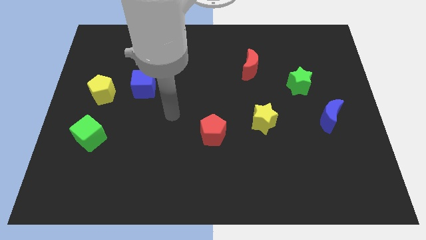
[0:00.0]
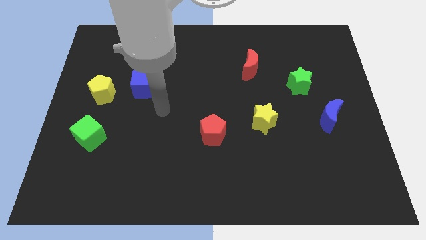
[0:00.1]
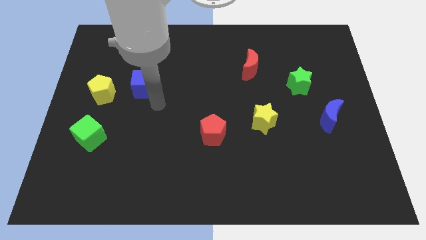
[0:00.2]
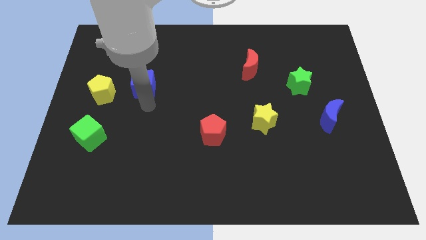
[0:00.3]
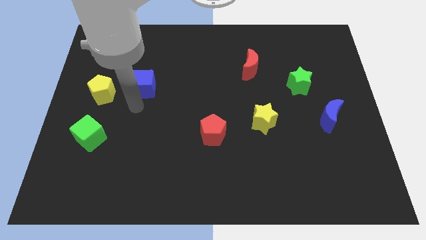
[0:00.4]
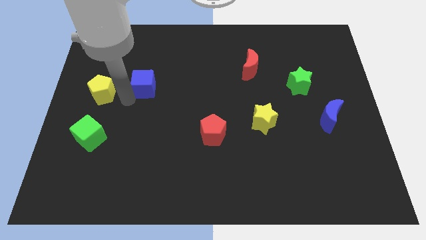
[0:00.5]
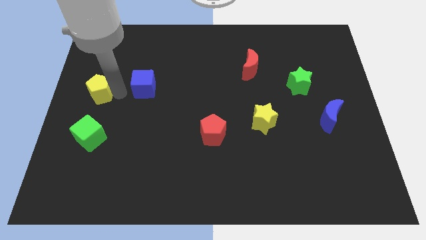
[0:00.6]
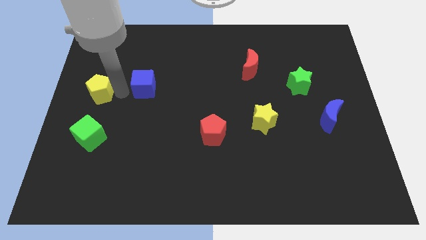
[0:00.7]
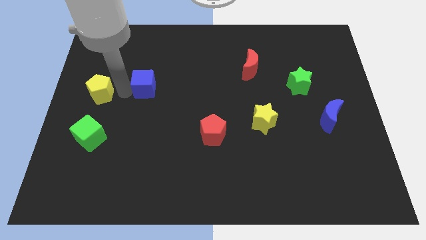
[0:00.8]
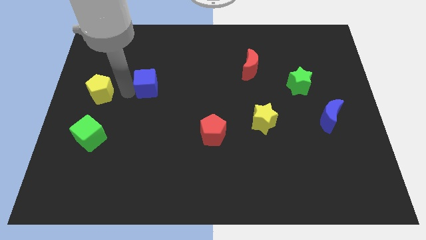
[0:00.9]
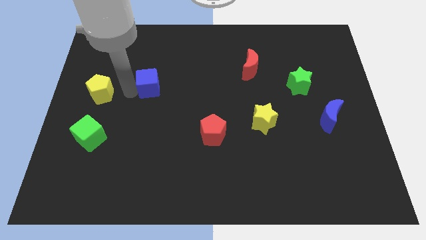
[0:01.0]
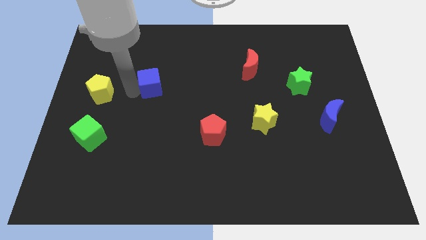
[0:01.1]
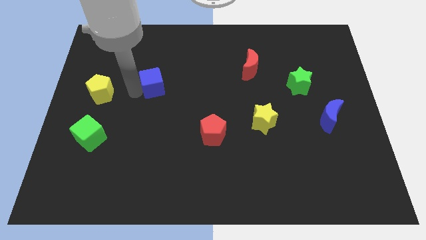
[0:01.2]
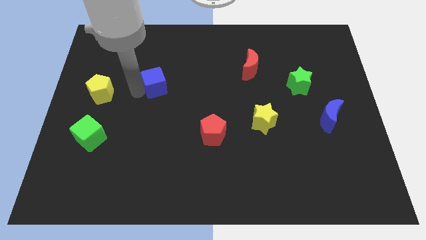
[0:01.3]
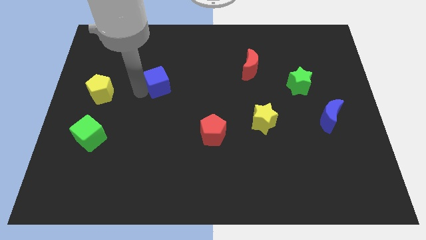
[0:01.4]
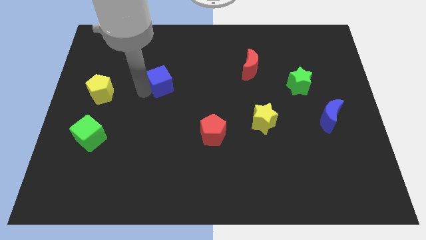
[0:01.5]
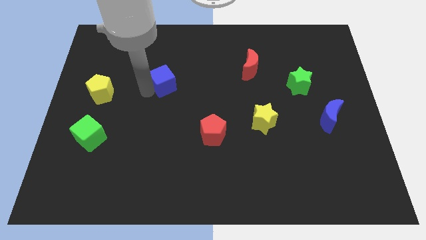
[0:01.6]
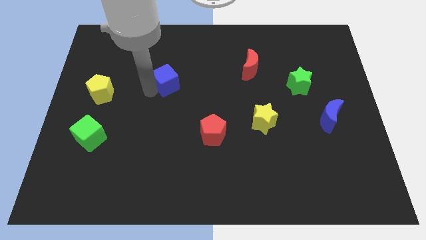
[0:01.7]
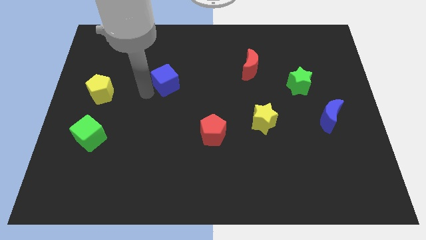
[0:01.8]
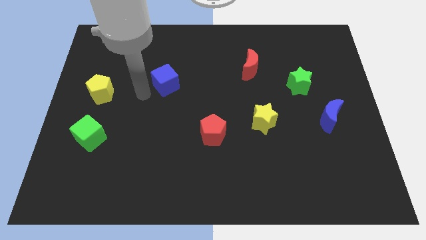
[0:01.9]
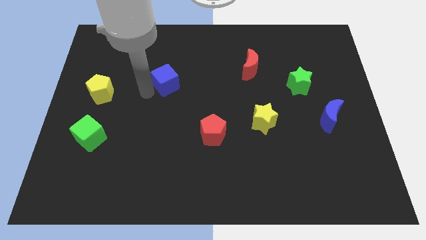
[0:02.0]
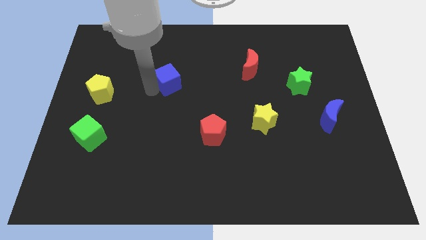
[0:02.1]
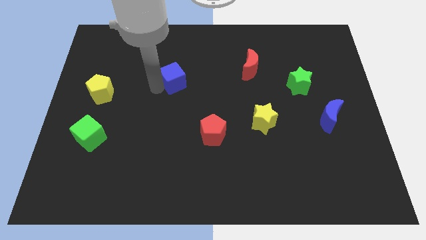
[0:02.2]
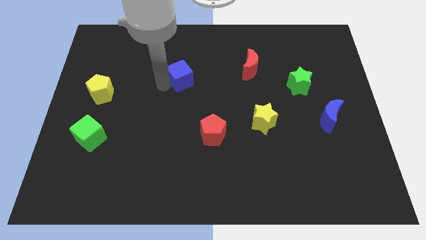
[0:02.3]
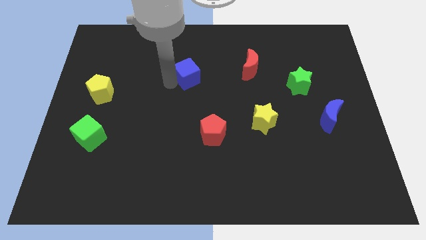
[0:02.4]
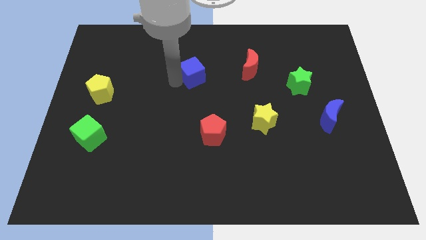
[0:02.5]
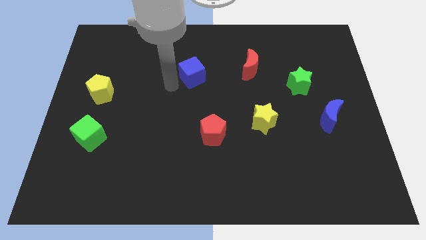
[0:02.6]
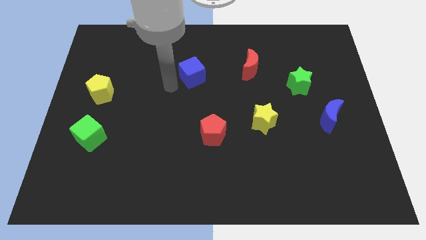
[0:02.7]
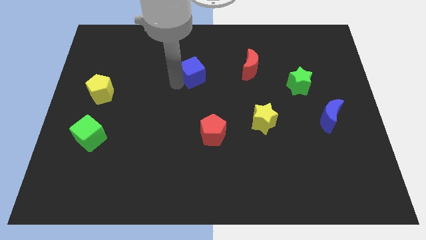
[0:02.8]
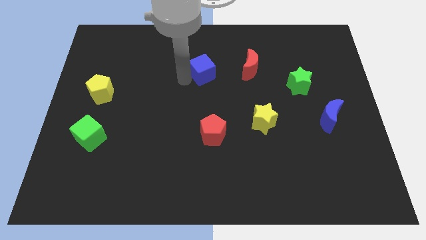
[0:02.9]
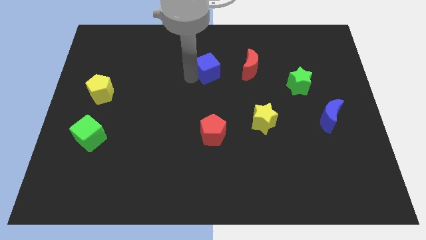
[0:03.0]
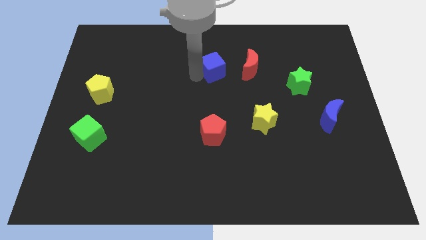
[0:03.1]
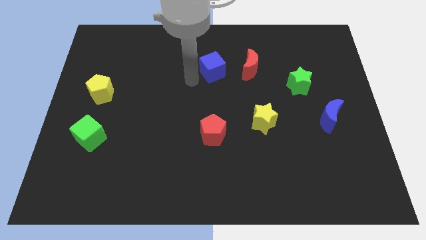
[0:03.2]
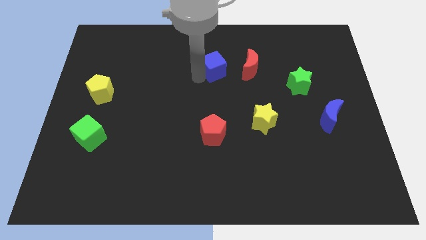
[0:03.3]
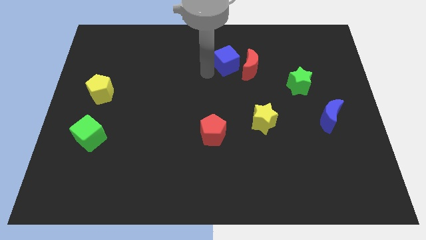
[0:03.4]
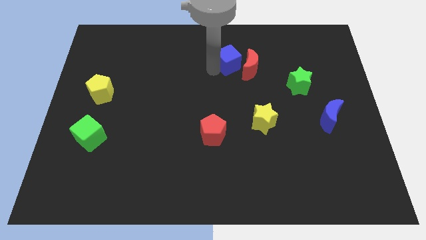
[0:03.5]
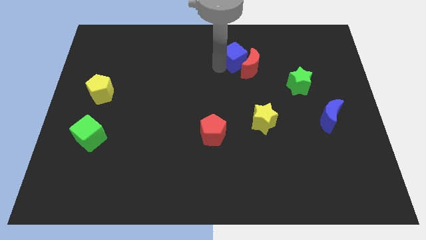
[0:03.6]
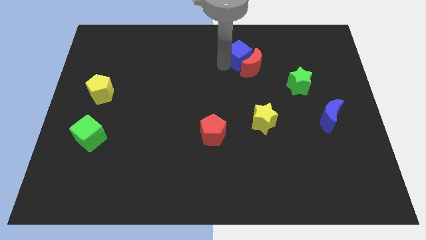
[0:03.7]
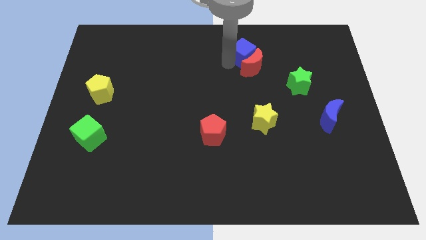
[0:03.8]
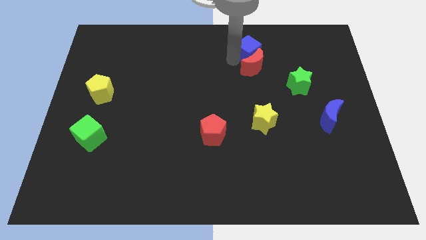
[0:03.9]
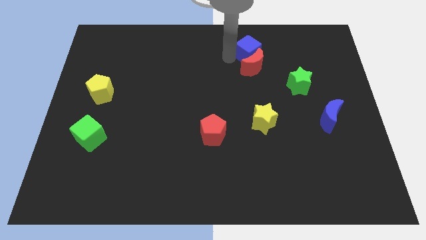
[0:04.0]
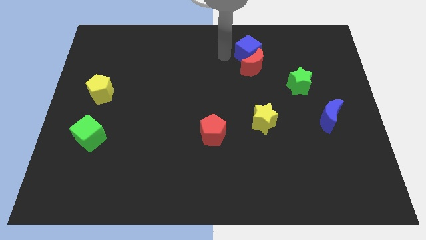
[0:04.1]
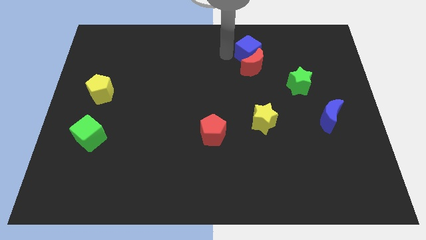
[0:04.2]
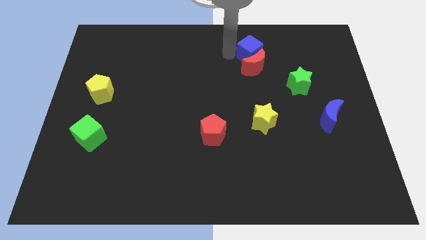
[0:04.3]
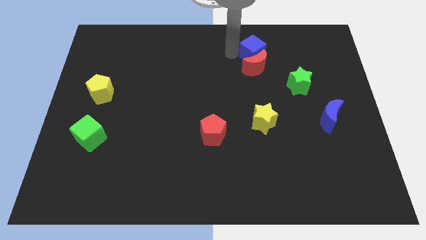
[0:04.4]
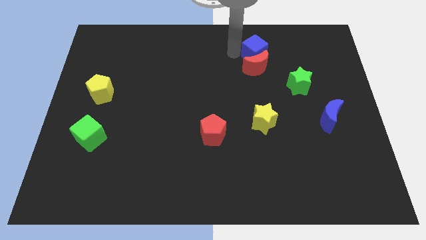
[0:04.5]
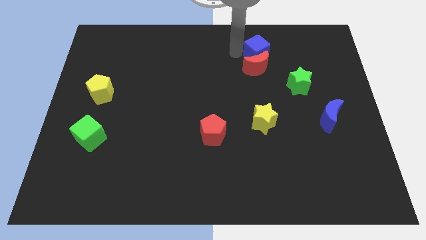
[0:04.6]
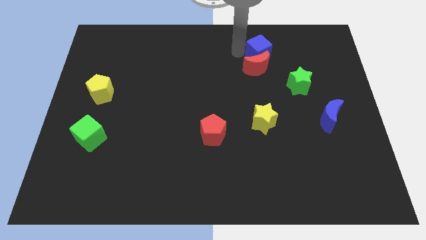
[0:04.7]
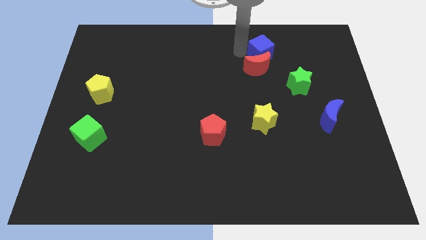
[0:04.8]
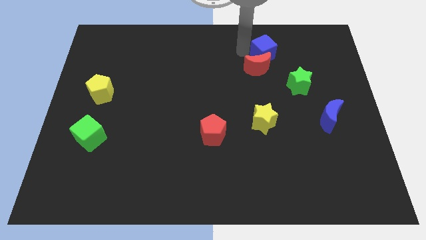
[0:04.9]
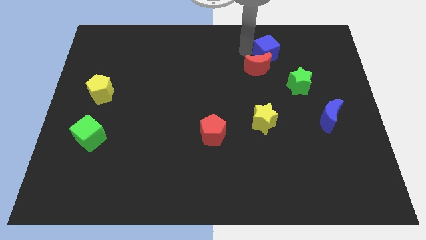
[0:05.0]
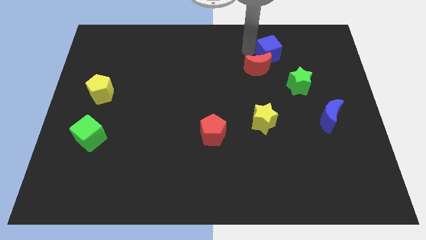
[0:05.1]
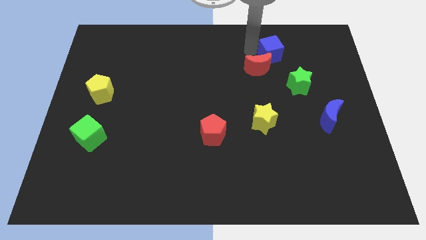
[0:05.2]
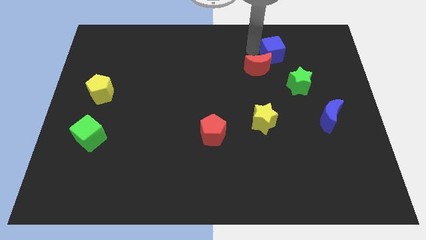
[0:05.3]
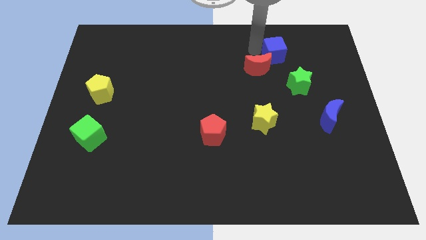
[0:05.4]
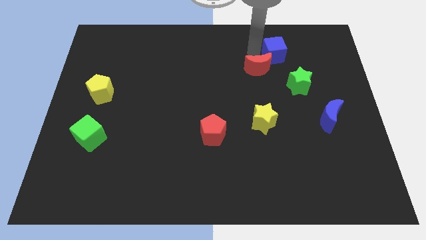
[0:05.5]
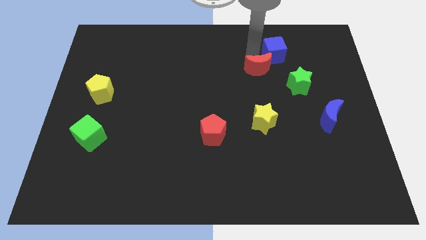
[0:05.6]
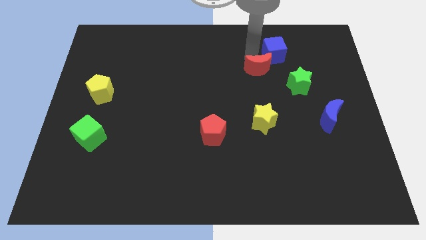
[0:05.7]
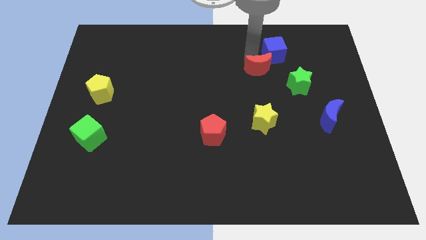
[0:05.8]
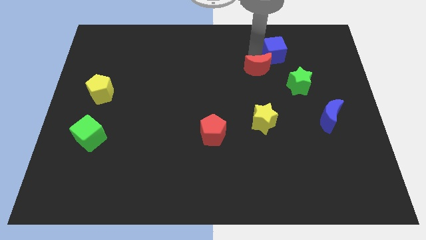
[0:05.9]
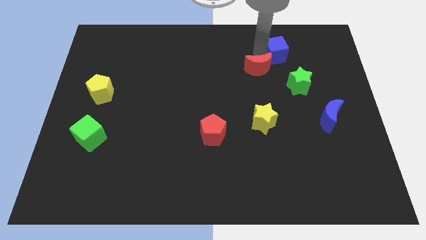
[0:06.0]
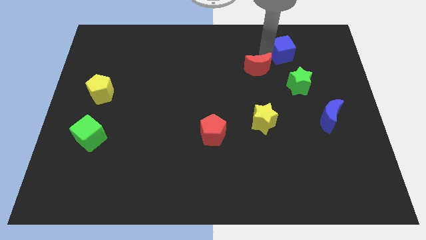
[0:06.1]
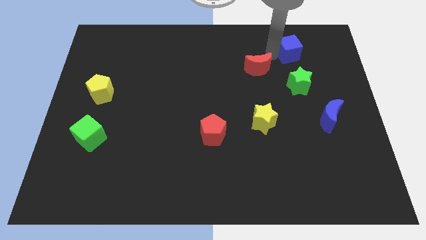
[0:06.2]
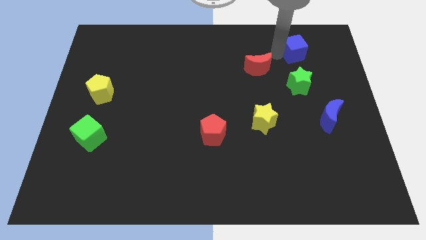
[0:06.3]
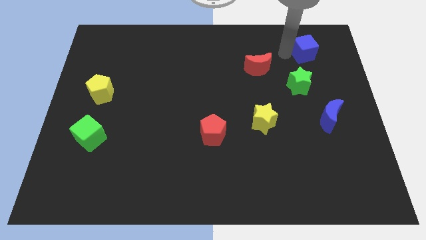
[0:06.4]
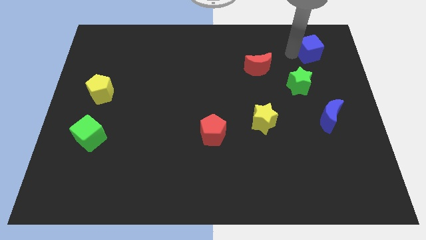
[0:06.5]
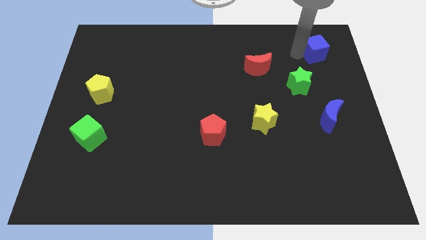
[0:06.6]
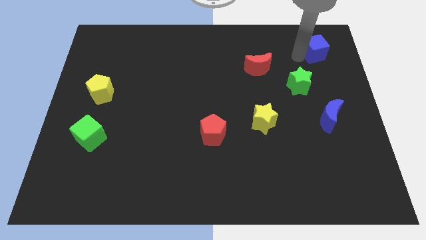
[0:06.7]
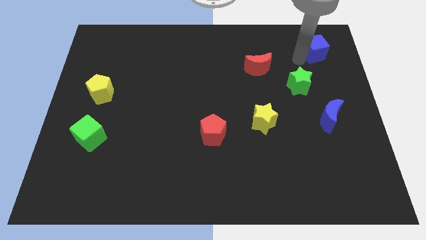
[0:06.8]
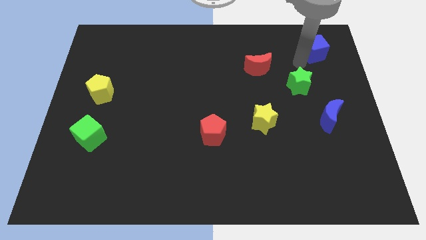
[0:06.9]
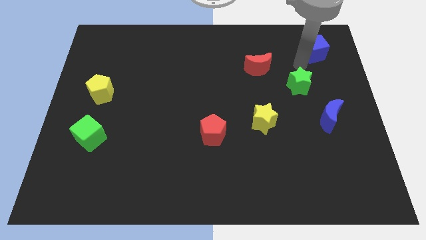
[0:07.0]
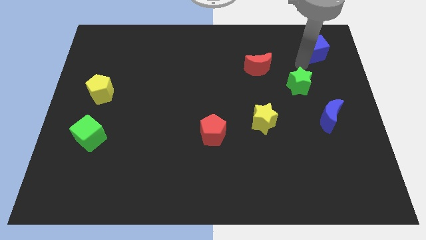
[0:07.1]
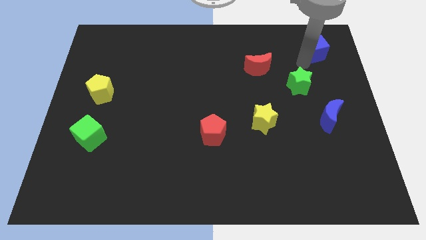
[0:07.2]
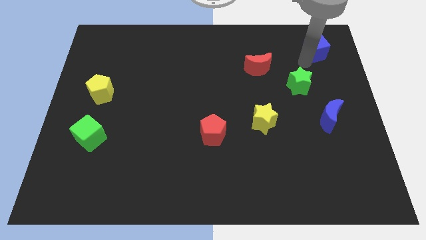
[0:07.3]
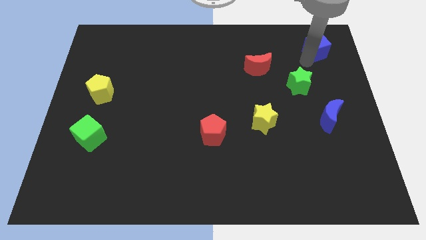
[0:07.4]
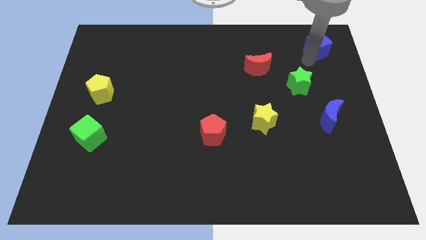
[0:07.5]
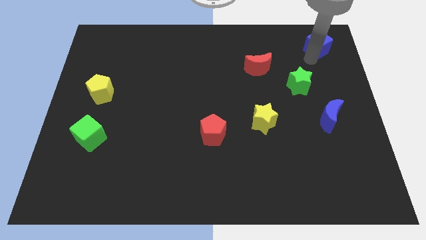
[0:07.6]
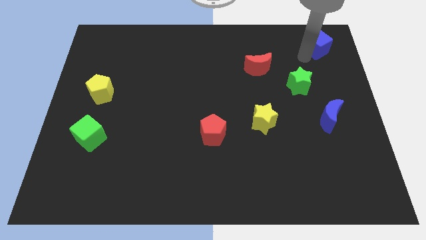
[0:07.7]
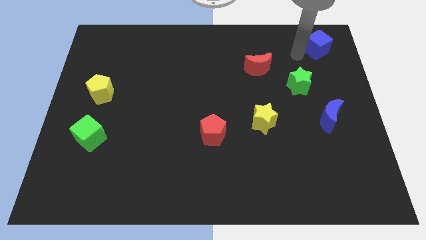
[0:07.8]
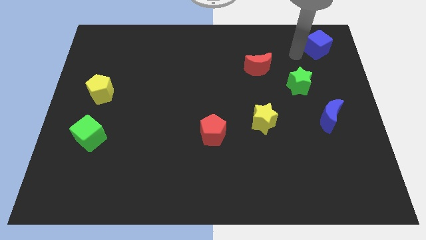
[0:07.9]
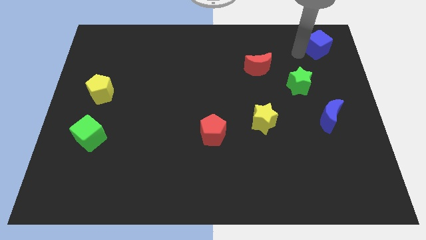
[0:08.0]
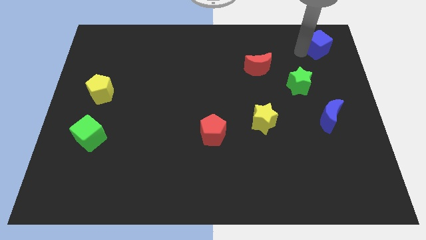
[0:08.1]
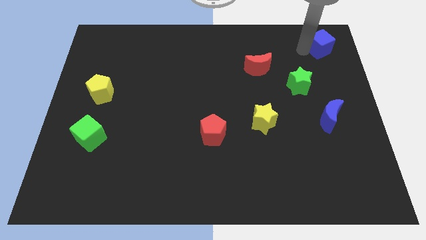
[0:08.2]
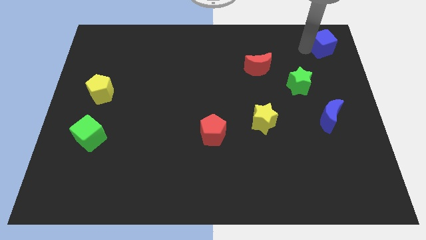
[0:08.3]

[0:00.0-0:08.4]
put the blue cube to the top right of the board
